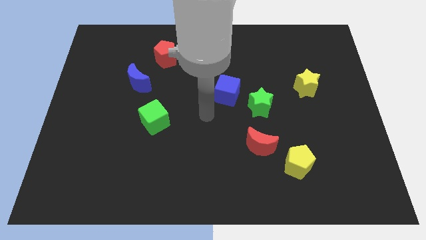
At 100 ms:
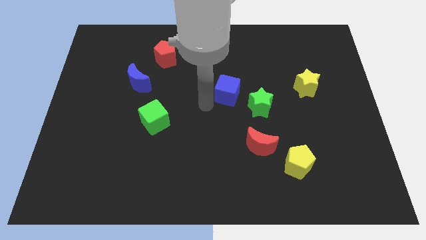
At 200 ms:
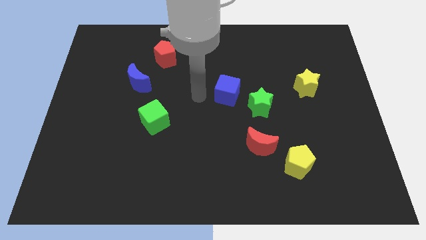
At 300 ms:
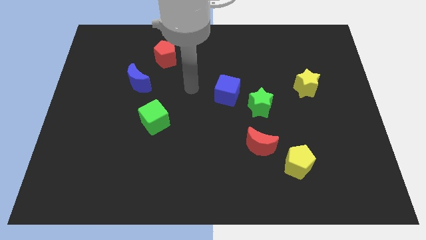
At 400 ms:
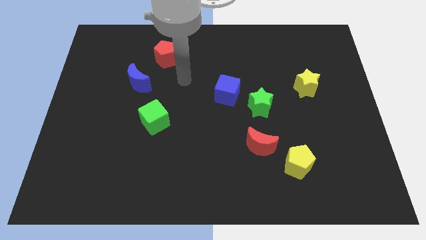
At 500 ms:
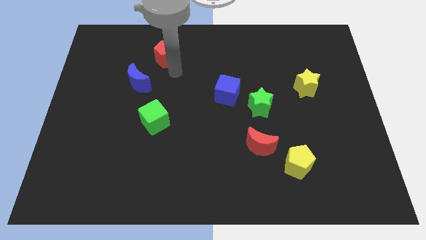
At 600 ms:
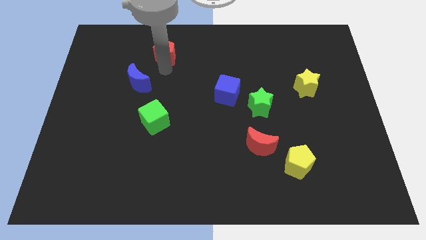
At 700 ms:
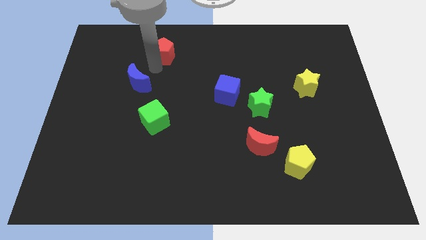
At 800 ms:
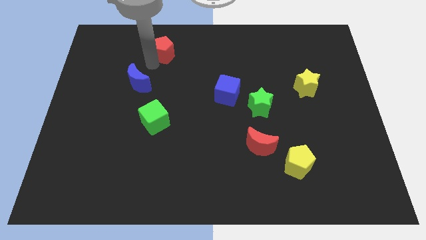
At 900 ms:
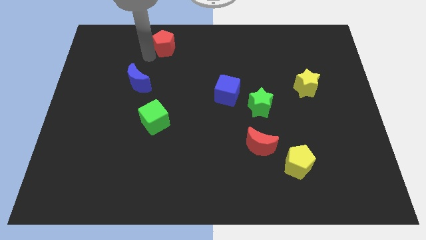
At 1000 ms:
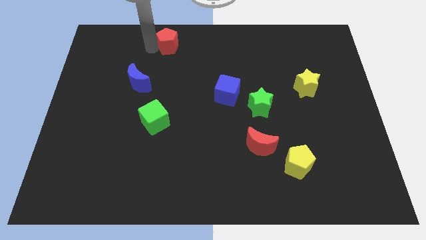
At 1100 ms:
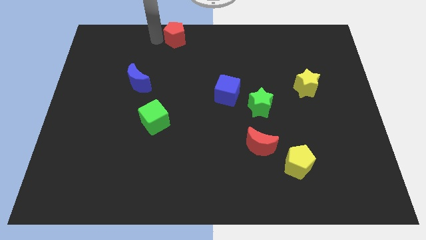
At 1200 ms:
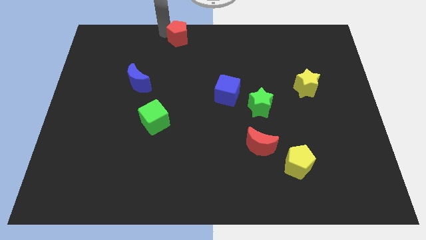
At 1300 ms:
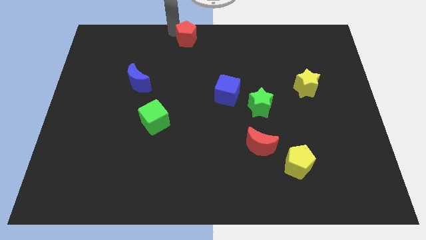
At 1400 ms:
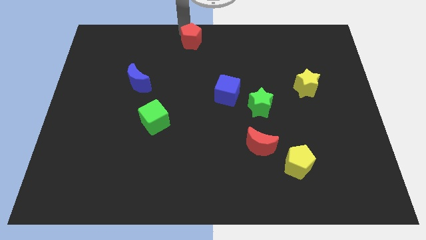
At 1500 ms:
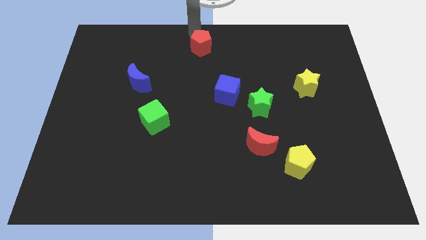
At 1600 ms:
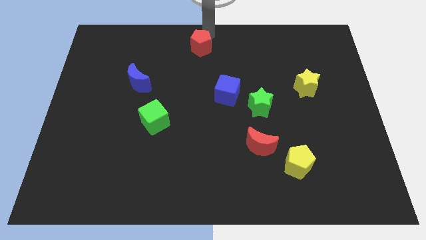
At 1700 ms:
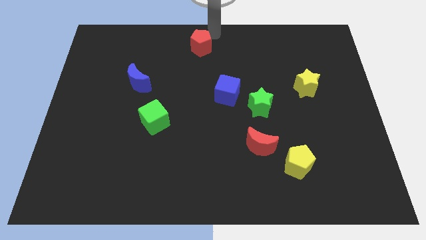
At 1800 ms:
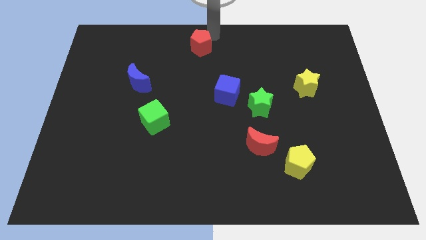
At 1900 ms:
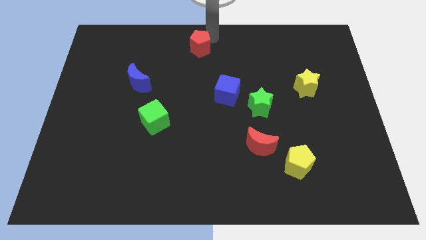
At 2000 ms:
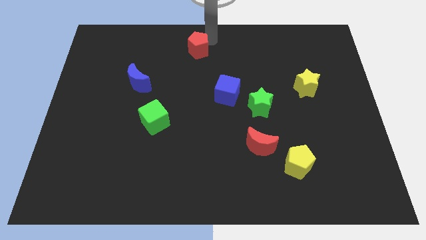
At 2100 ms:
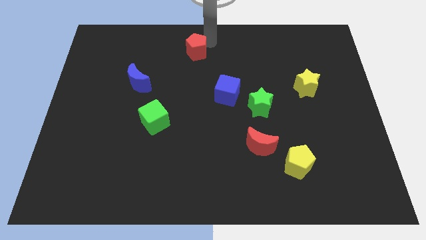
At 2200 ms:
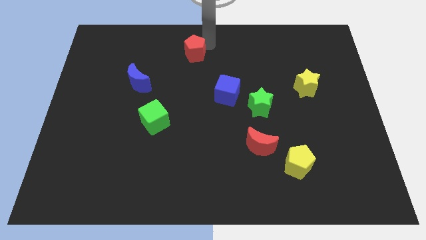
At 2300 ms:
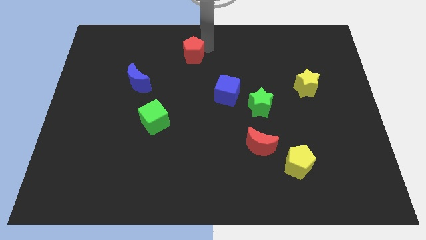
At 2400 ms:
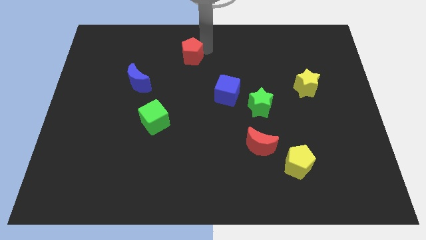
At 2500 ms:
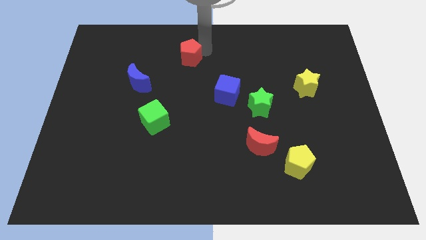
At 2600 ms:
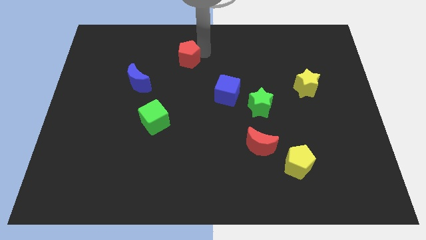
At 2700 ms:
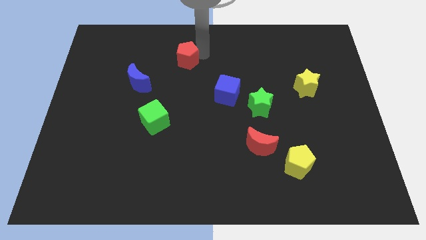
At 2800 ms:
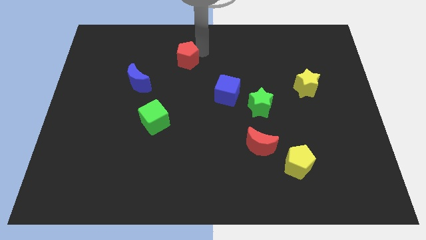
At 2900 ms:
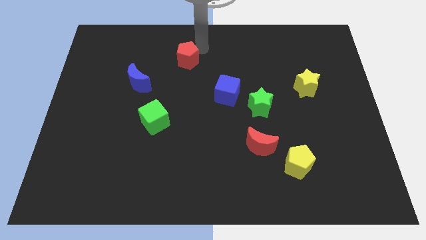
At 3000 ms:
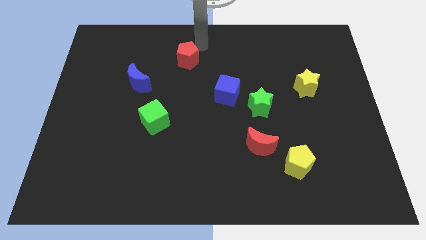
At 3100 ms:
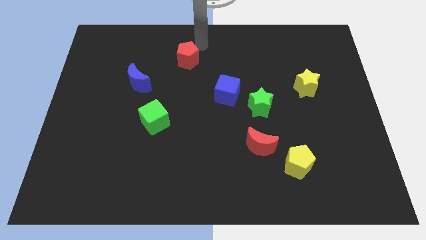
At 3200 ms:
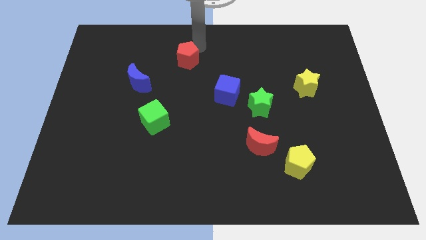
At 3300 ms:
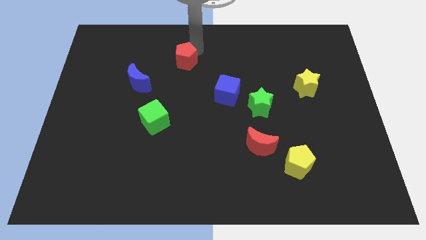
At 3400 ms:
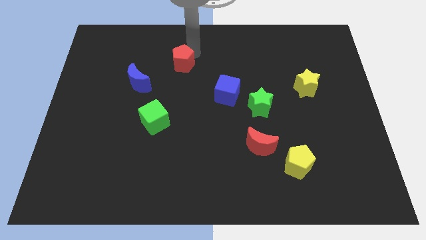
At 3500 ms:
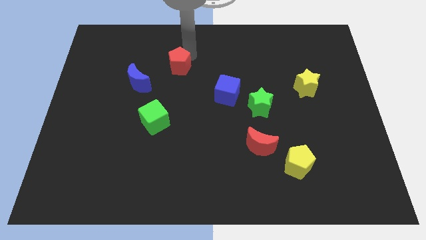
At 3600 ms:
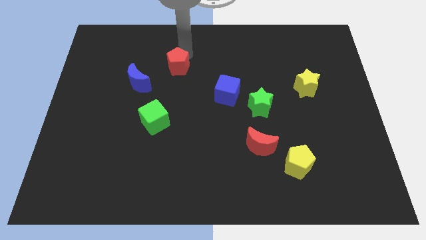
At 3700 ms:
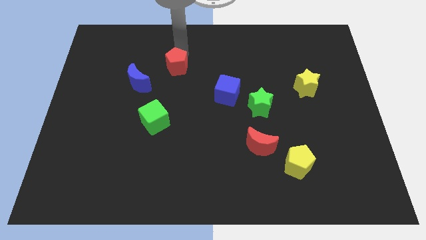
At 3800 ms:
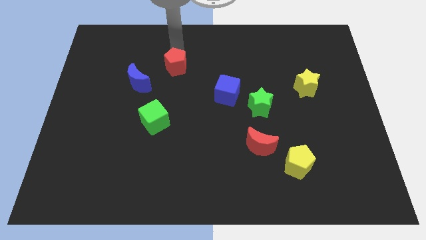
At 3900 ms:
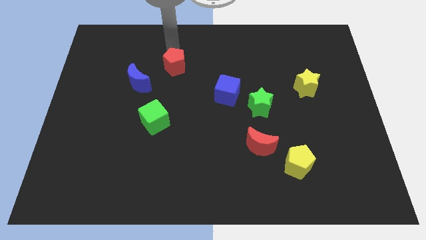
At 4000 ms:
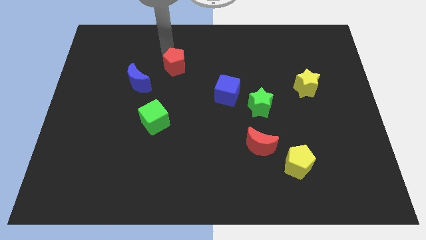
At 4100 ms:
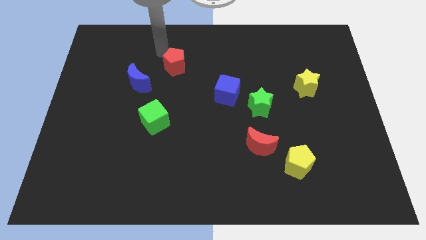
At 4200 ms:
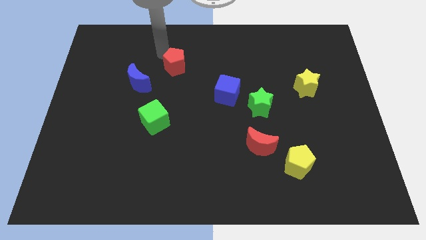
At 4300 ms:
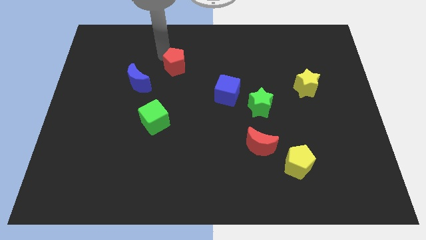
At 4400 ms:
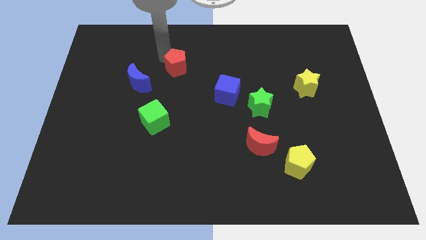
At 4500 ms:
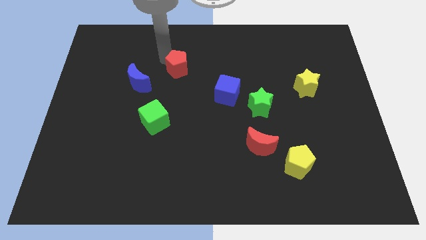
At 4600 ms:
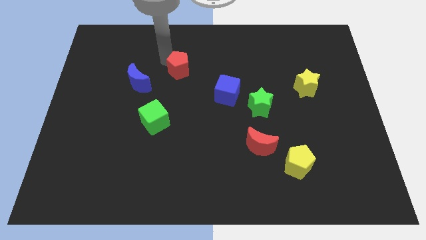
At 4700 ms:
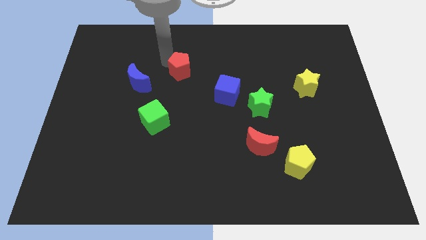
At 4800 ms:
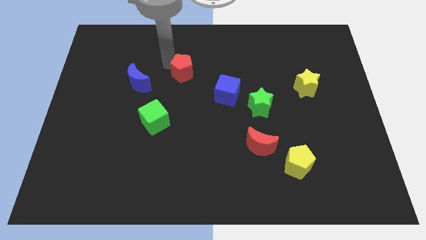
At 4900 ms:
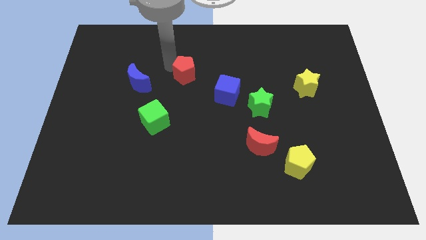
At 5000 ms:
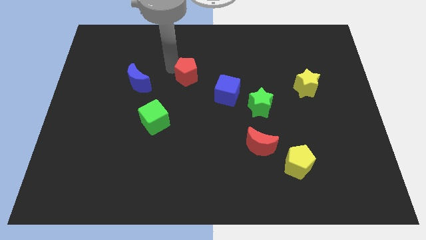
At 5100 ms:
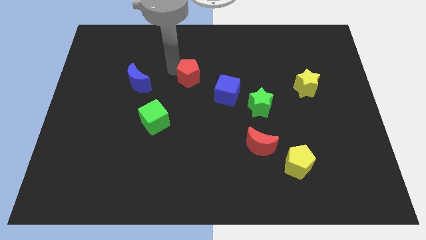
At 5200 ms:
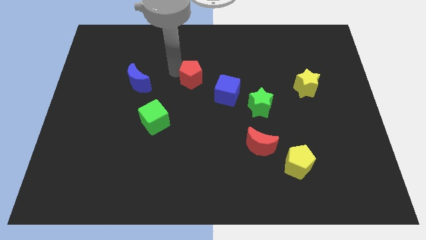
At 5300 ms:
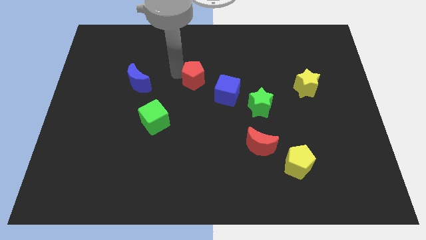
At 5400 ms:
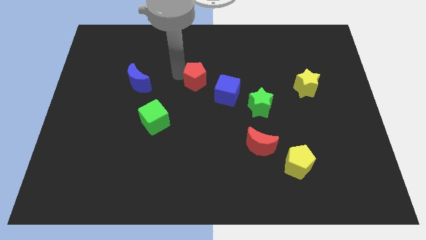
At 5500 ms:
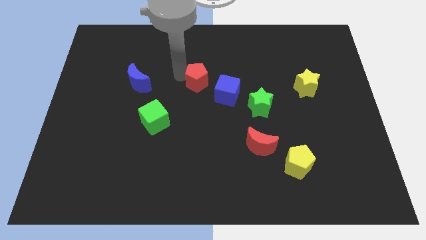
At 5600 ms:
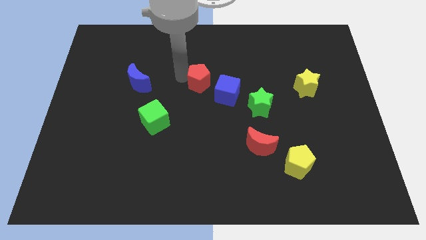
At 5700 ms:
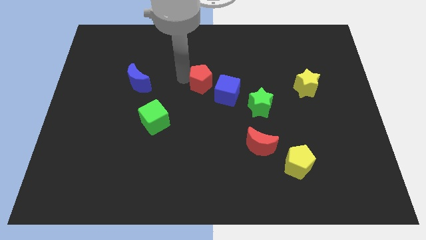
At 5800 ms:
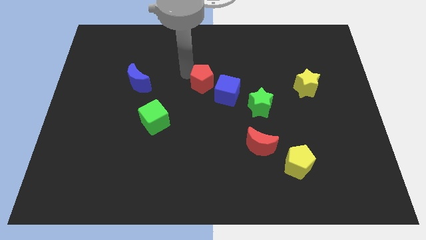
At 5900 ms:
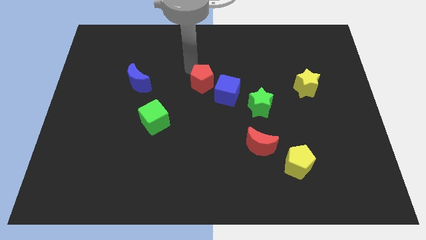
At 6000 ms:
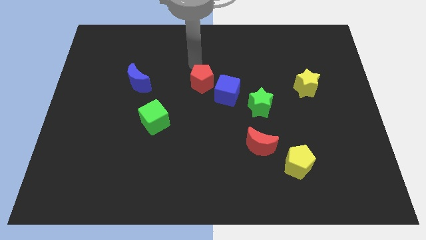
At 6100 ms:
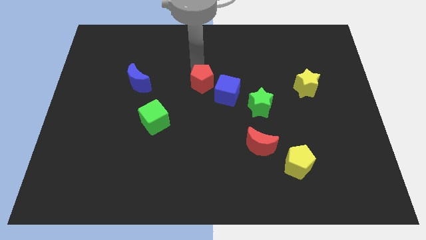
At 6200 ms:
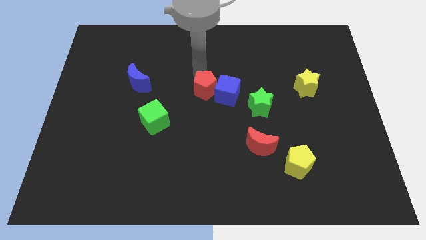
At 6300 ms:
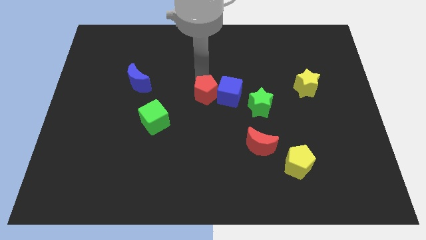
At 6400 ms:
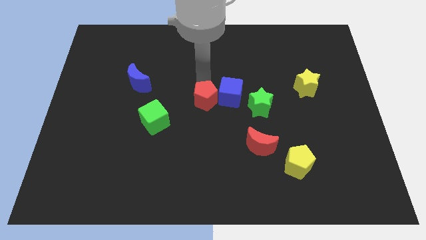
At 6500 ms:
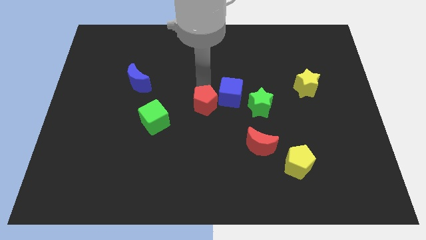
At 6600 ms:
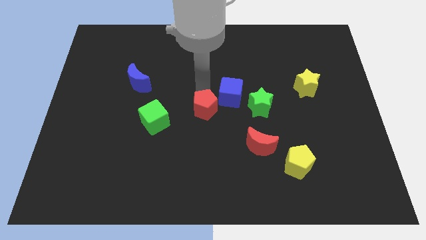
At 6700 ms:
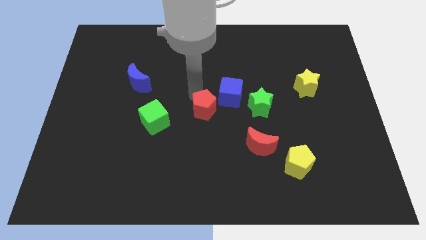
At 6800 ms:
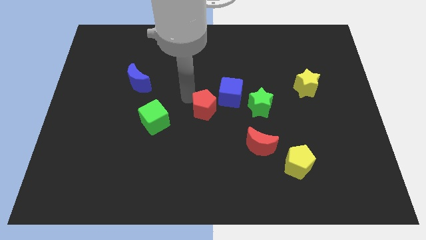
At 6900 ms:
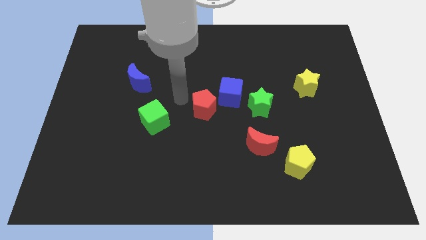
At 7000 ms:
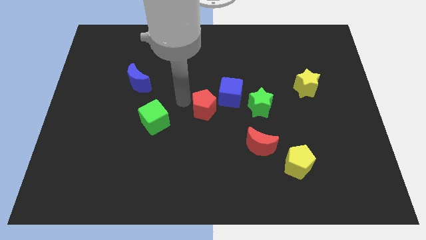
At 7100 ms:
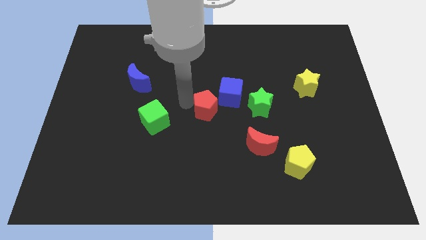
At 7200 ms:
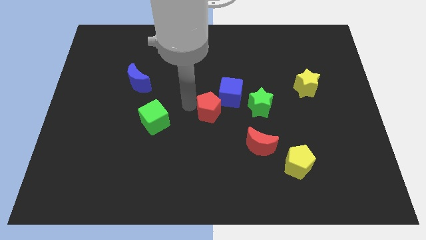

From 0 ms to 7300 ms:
push the red pentagon down and then to the right

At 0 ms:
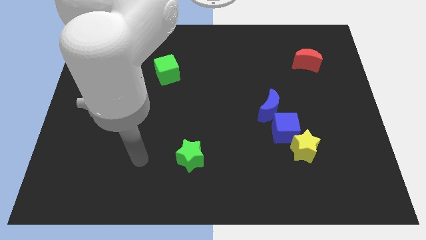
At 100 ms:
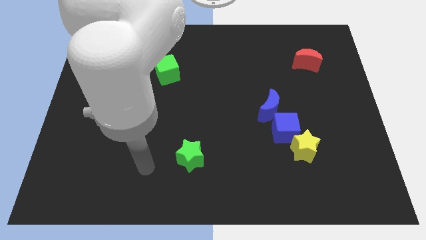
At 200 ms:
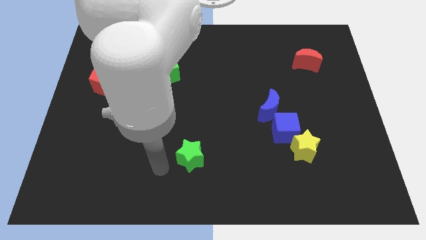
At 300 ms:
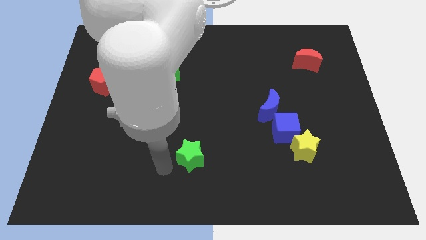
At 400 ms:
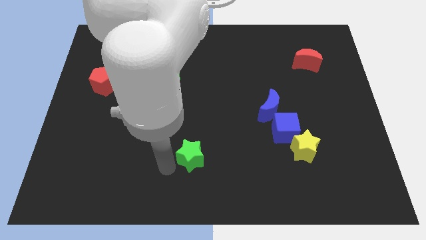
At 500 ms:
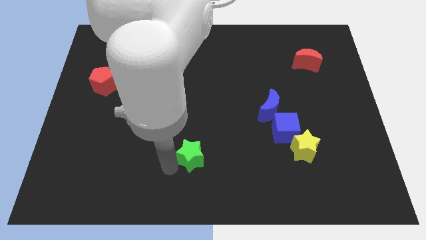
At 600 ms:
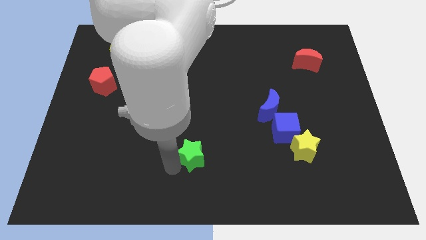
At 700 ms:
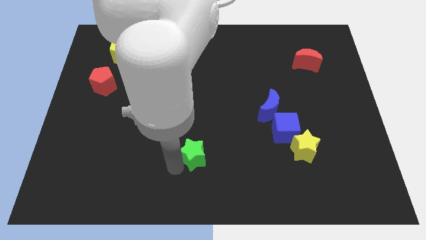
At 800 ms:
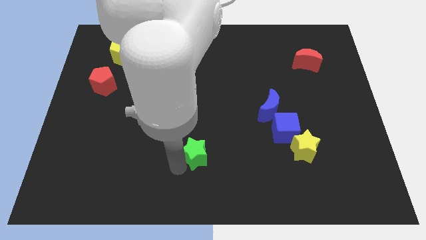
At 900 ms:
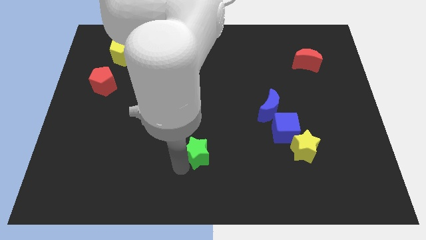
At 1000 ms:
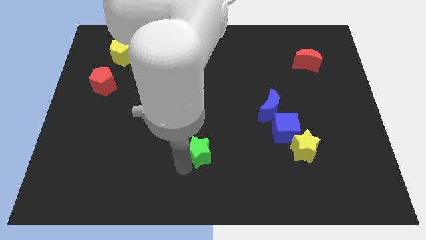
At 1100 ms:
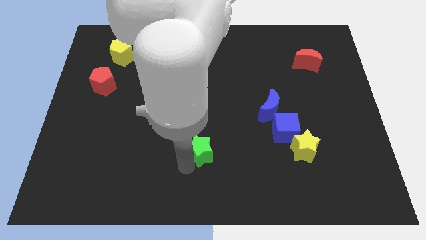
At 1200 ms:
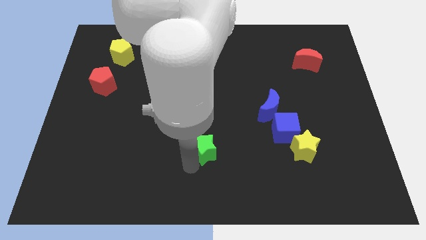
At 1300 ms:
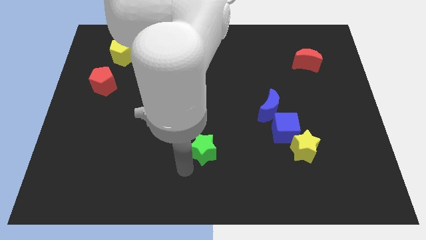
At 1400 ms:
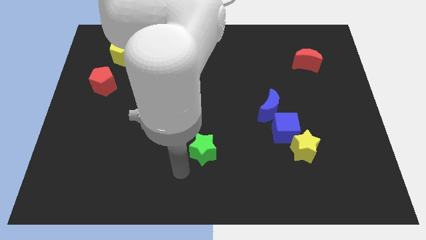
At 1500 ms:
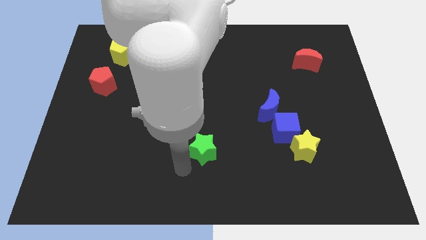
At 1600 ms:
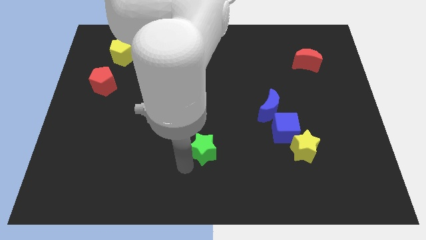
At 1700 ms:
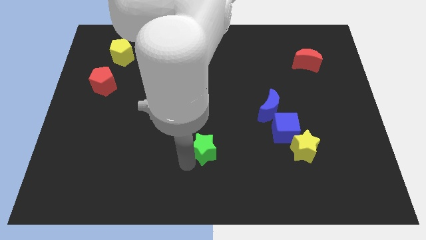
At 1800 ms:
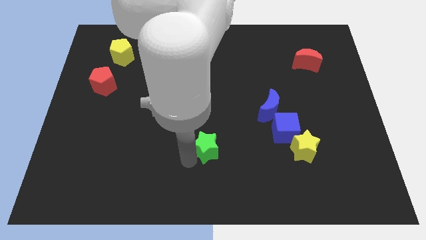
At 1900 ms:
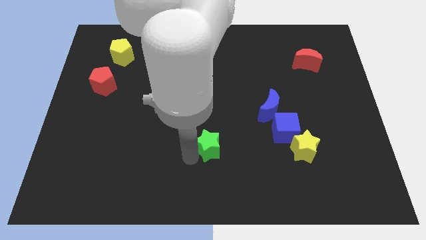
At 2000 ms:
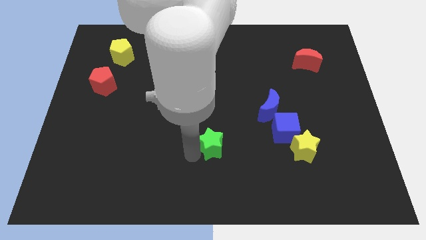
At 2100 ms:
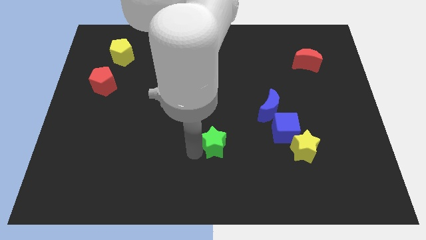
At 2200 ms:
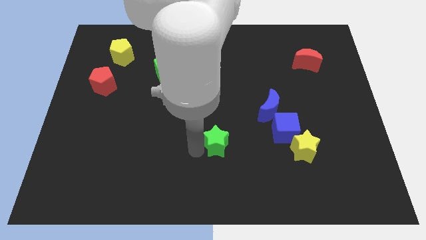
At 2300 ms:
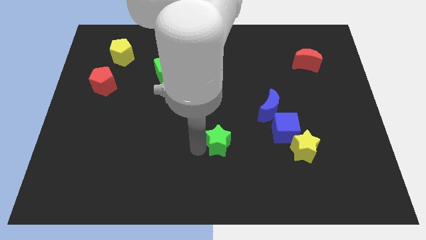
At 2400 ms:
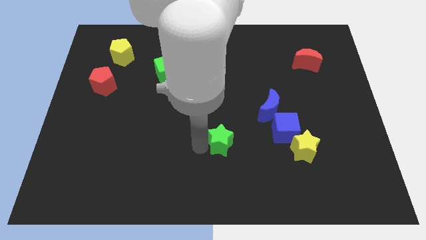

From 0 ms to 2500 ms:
push the green star upwards and right slightly
